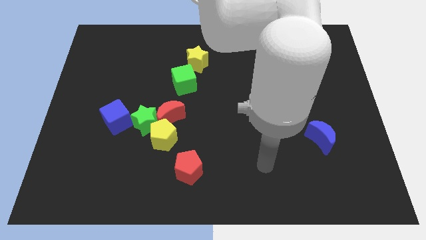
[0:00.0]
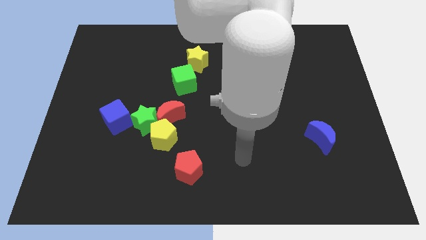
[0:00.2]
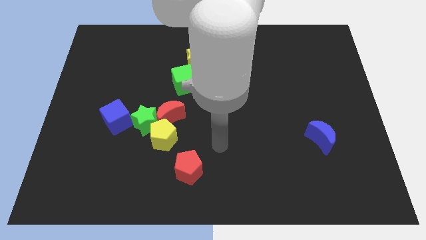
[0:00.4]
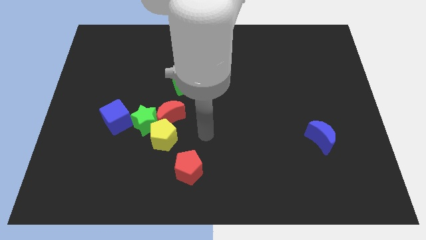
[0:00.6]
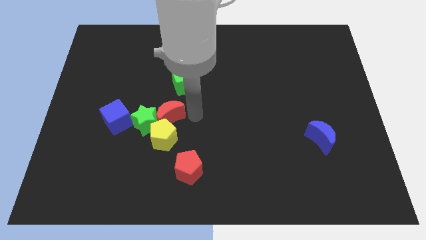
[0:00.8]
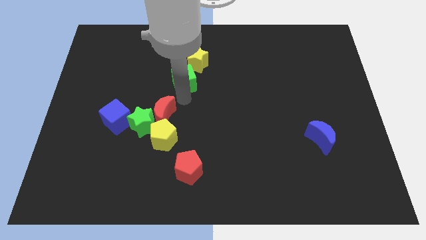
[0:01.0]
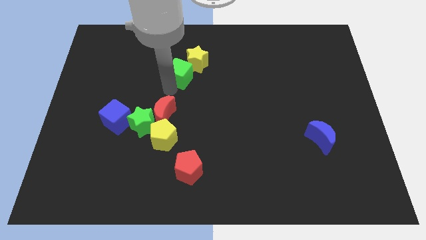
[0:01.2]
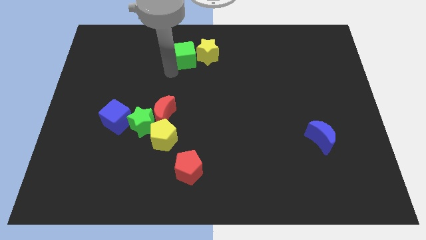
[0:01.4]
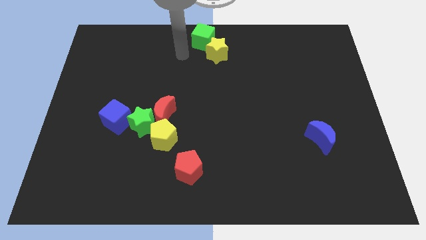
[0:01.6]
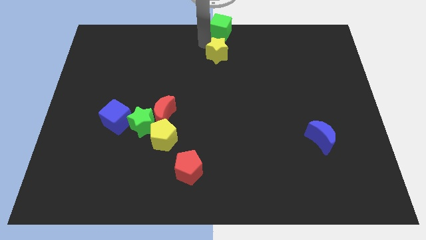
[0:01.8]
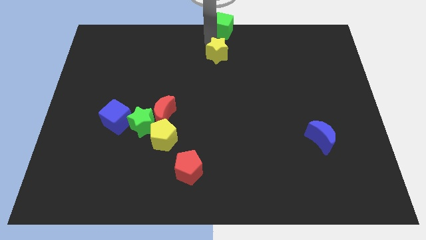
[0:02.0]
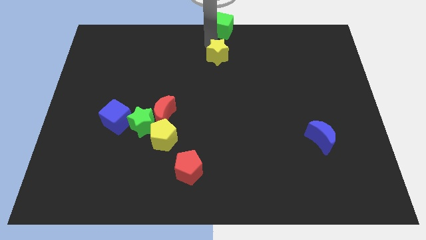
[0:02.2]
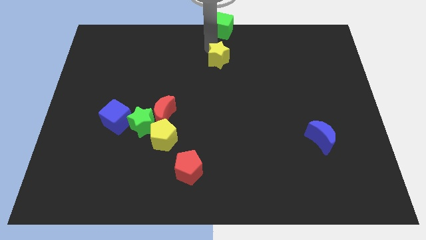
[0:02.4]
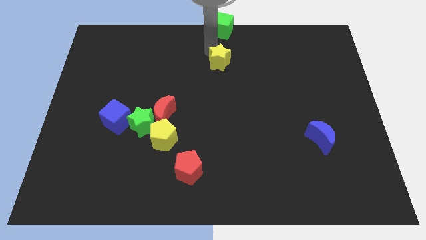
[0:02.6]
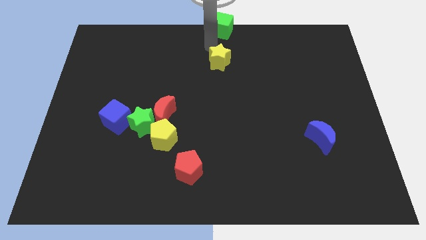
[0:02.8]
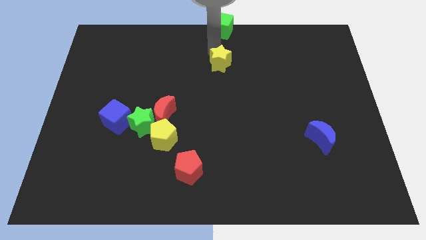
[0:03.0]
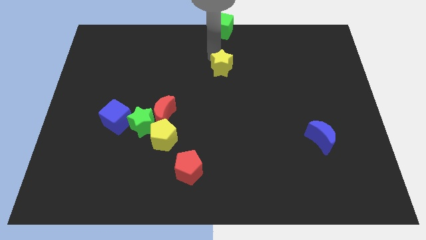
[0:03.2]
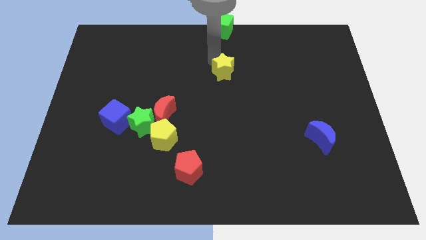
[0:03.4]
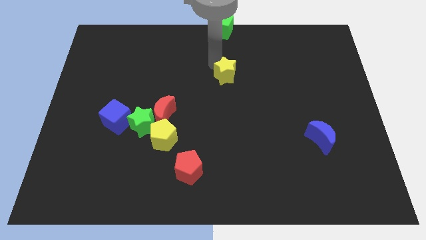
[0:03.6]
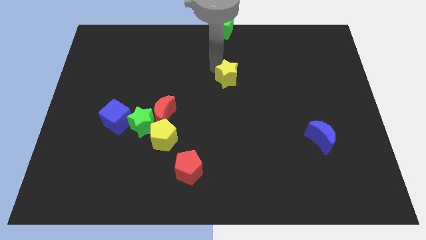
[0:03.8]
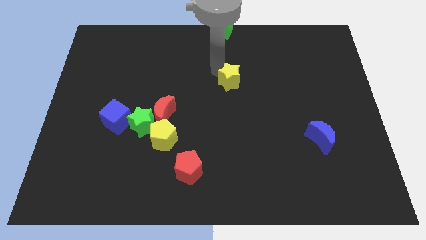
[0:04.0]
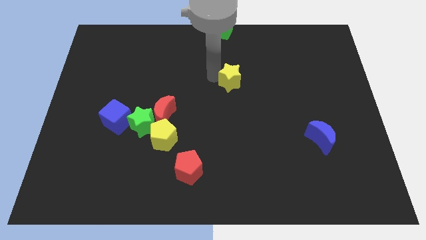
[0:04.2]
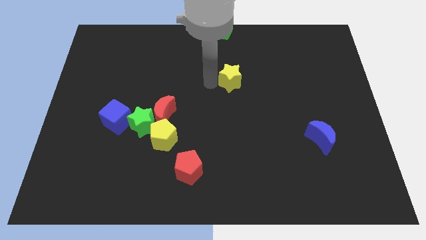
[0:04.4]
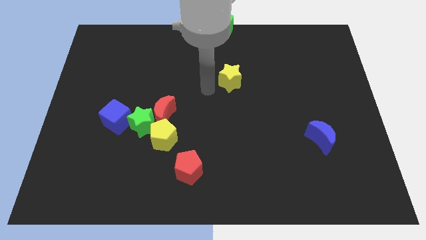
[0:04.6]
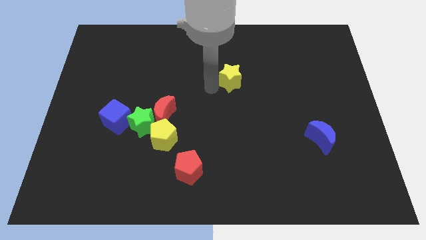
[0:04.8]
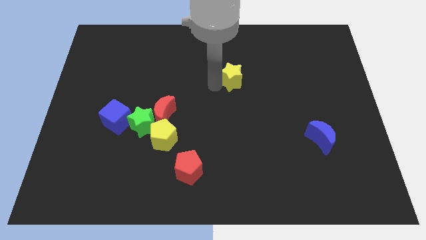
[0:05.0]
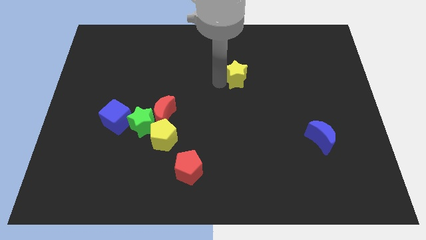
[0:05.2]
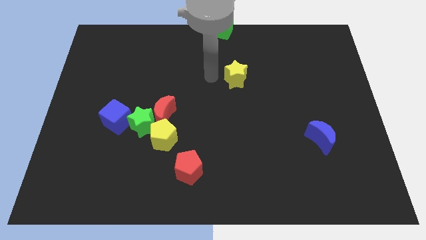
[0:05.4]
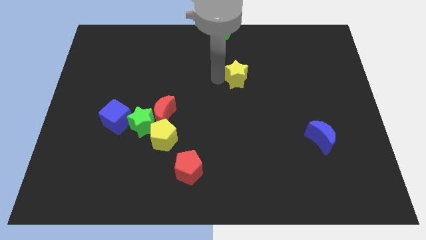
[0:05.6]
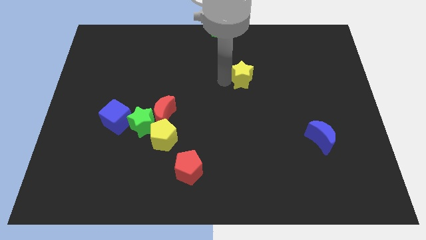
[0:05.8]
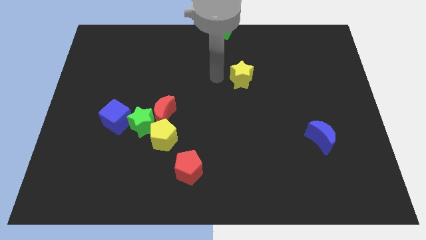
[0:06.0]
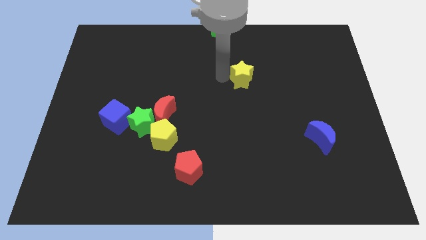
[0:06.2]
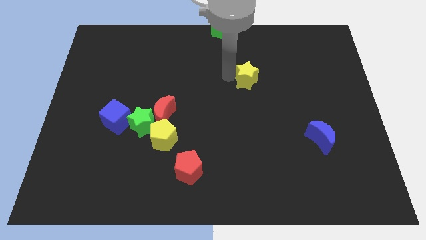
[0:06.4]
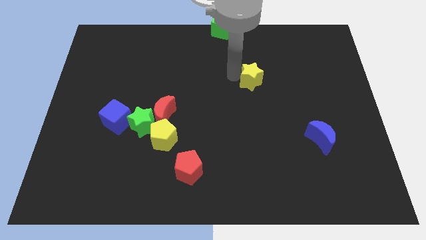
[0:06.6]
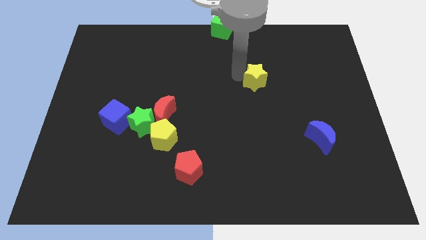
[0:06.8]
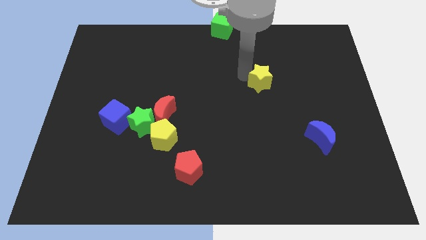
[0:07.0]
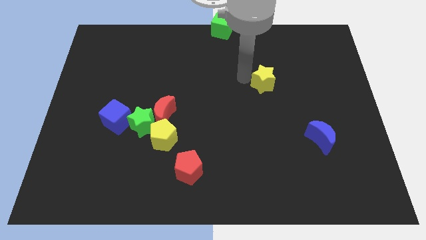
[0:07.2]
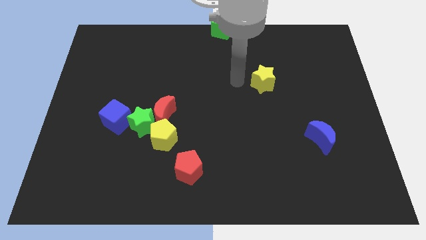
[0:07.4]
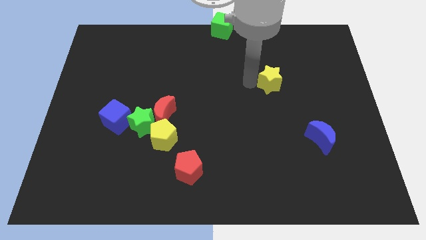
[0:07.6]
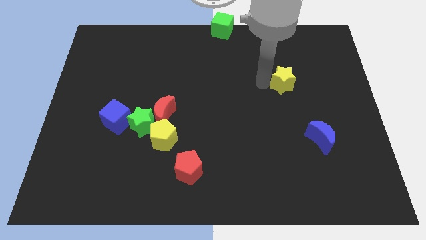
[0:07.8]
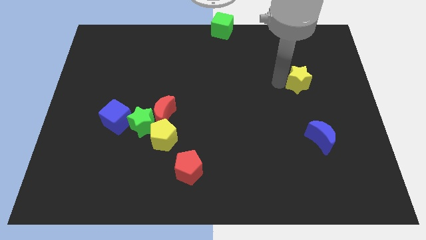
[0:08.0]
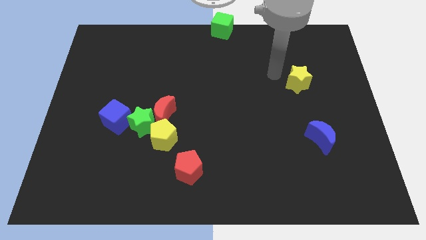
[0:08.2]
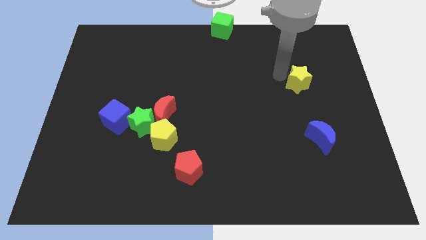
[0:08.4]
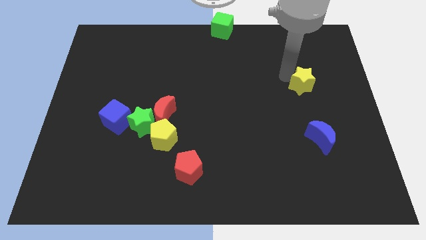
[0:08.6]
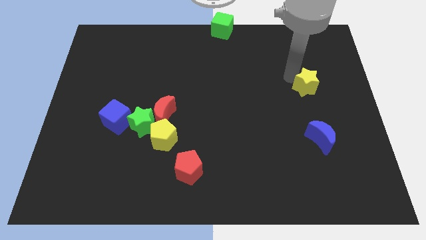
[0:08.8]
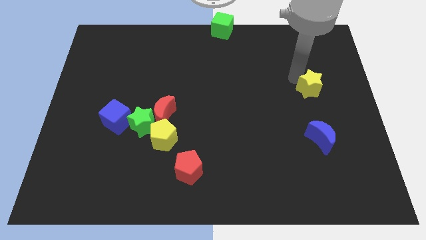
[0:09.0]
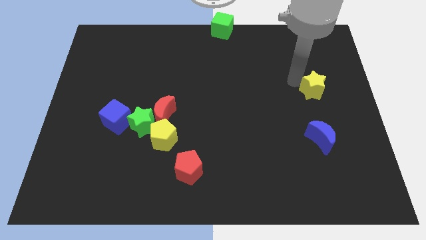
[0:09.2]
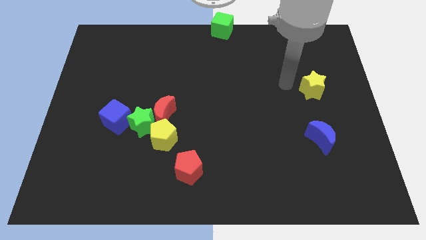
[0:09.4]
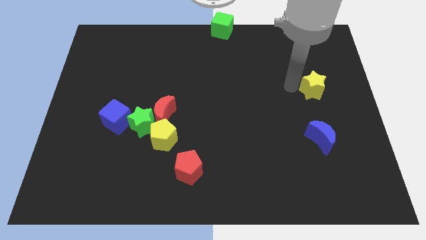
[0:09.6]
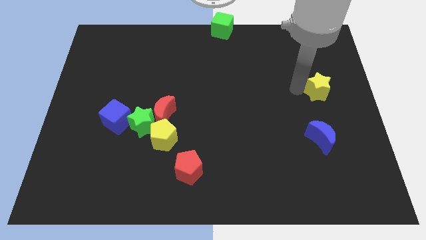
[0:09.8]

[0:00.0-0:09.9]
slide the yellow star to the center right

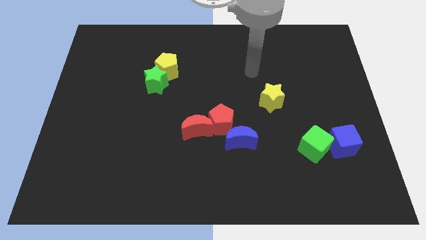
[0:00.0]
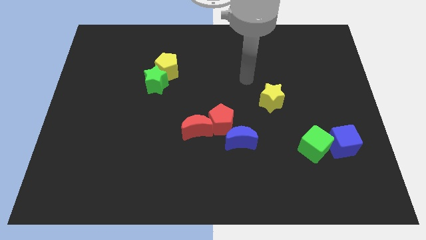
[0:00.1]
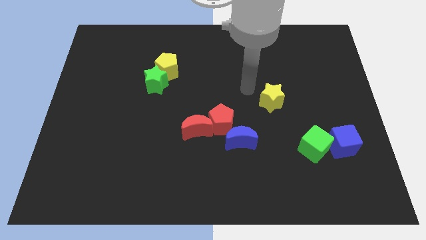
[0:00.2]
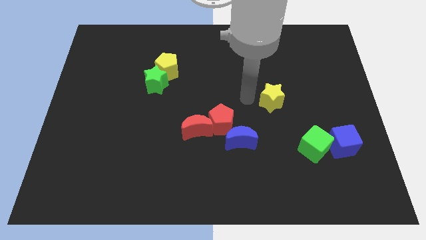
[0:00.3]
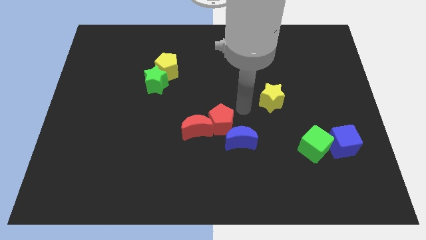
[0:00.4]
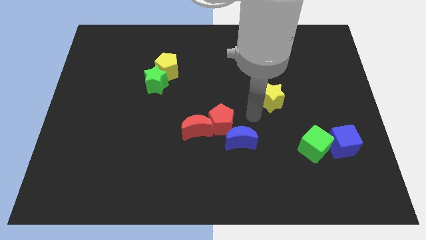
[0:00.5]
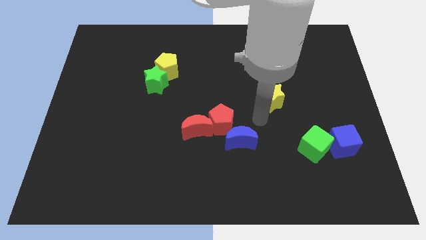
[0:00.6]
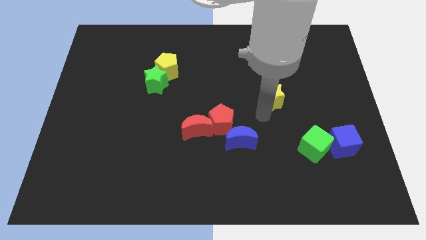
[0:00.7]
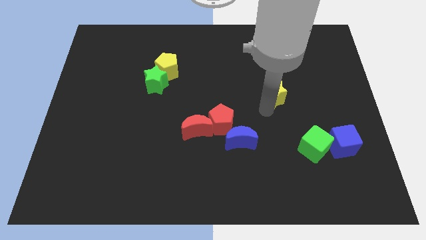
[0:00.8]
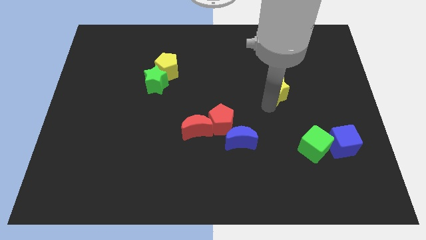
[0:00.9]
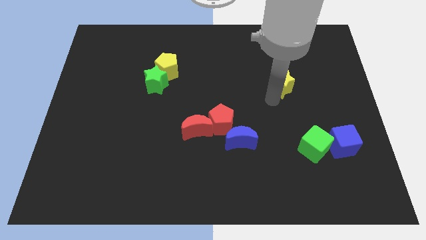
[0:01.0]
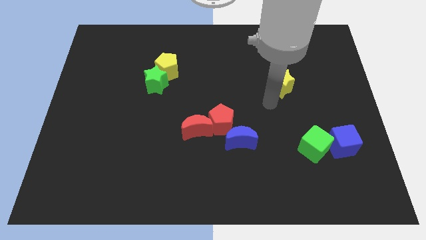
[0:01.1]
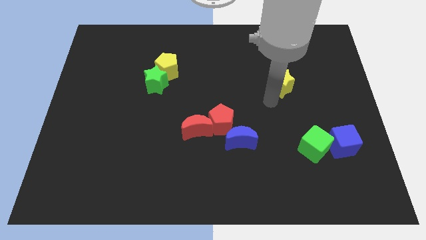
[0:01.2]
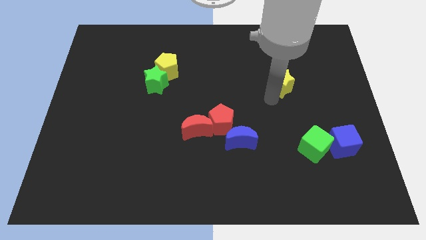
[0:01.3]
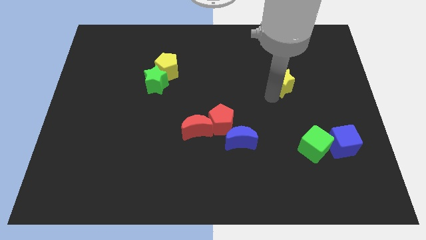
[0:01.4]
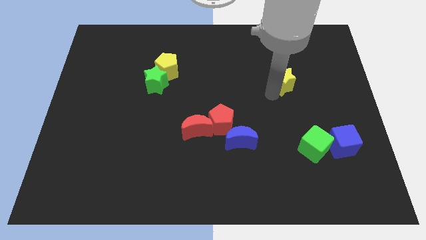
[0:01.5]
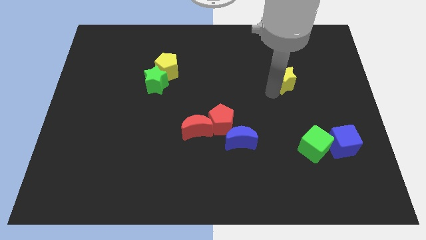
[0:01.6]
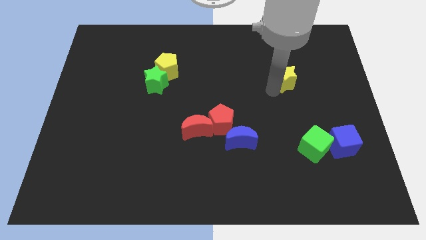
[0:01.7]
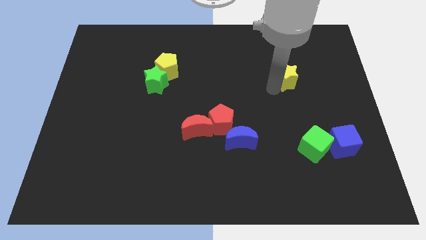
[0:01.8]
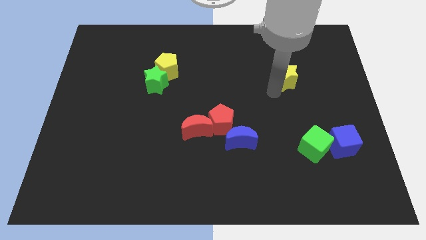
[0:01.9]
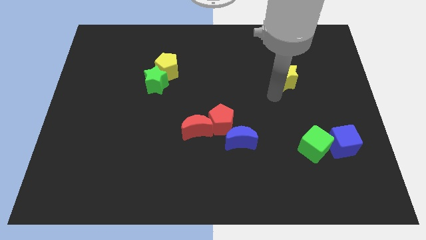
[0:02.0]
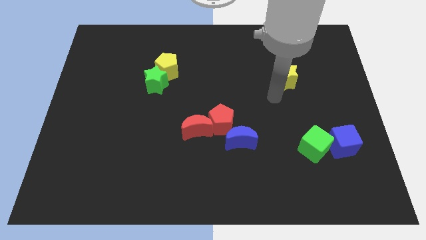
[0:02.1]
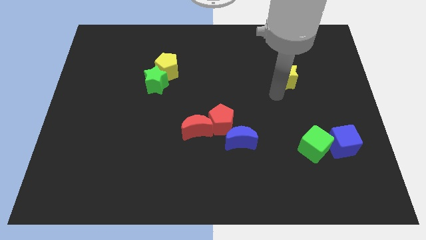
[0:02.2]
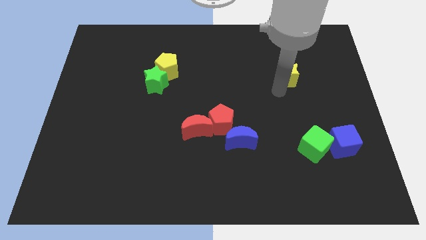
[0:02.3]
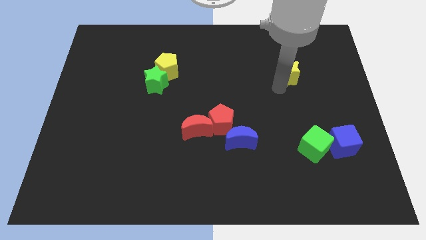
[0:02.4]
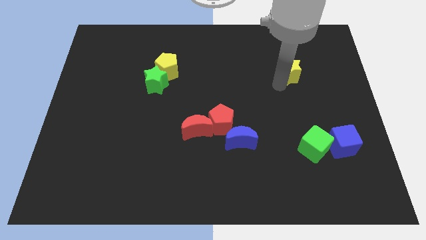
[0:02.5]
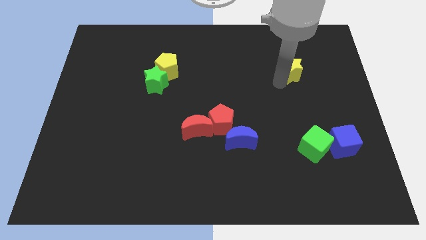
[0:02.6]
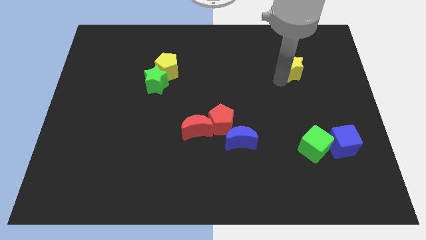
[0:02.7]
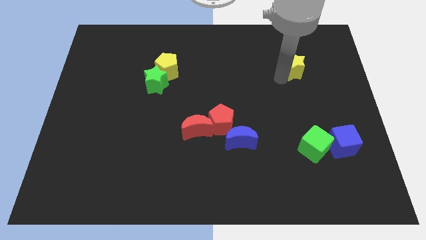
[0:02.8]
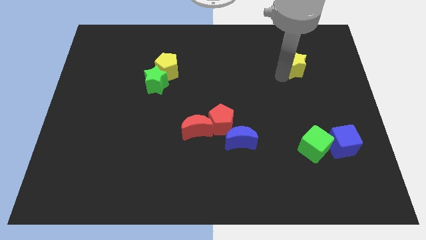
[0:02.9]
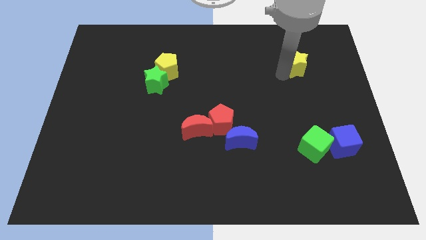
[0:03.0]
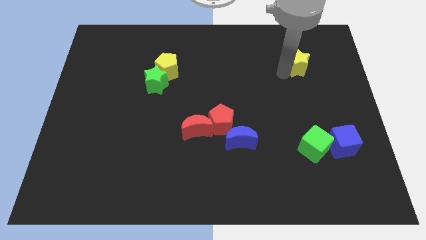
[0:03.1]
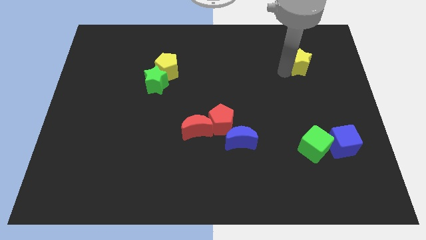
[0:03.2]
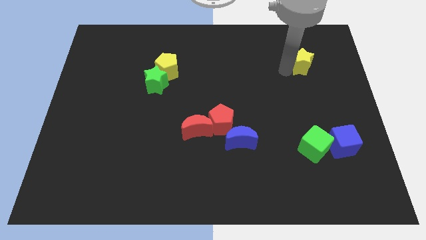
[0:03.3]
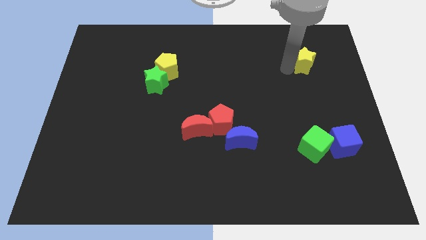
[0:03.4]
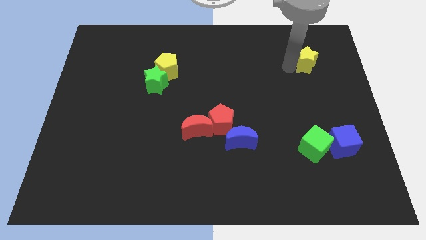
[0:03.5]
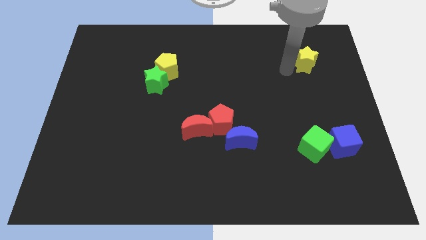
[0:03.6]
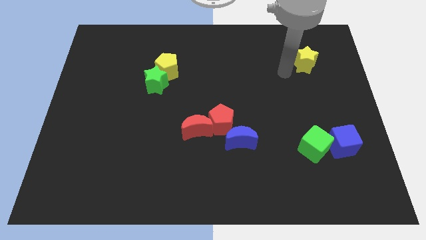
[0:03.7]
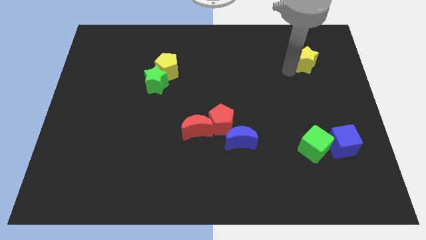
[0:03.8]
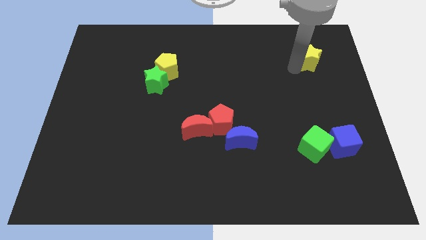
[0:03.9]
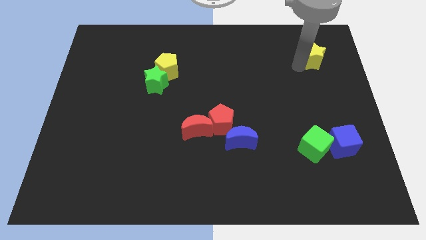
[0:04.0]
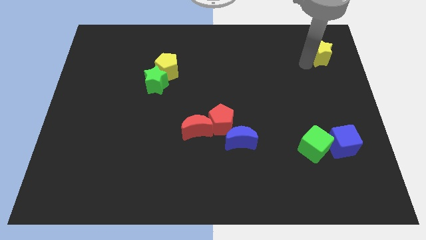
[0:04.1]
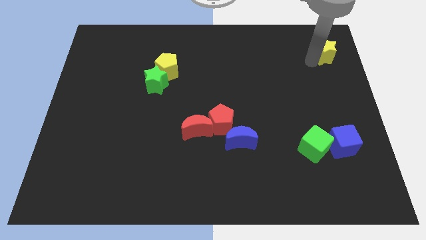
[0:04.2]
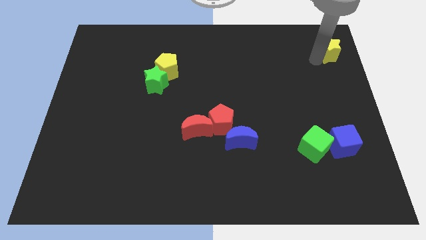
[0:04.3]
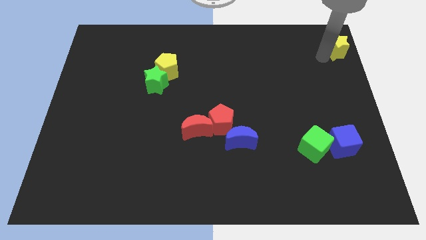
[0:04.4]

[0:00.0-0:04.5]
slide the yellow star to the top right of the board
